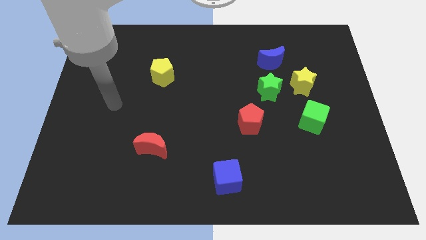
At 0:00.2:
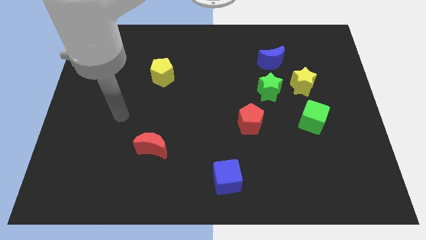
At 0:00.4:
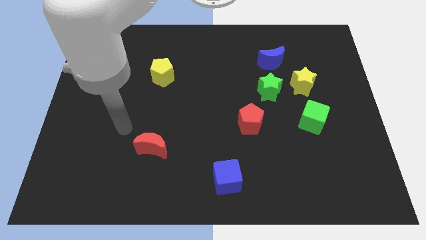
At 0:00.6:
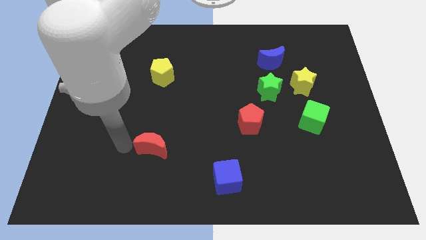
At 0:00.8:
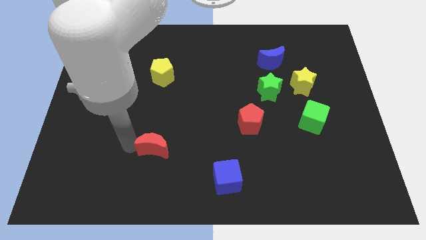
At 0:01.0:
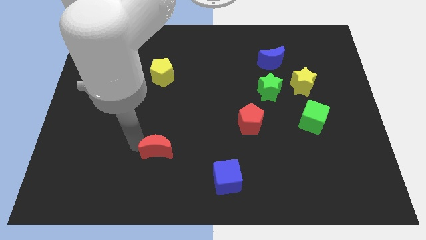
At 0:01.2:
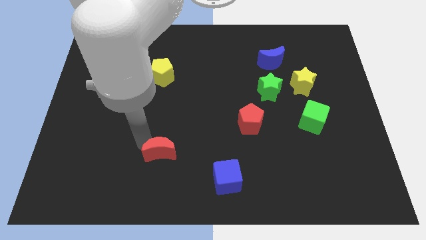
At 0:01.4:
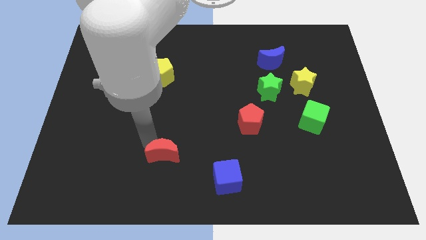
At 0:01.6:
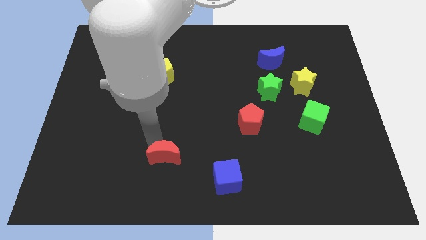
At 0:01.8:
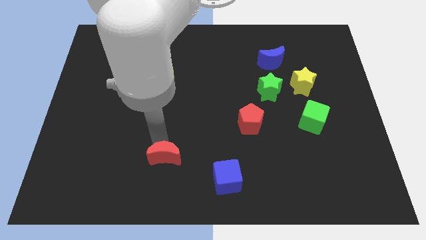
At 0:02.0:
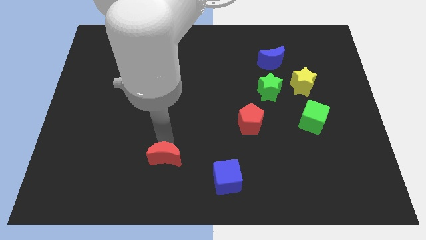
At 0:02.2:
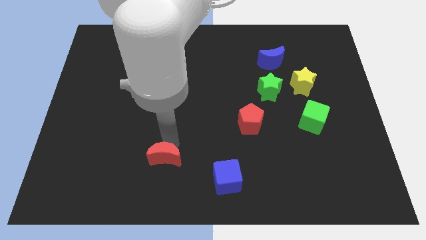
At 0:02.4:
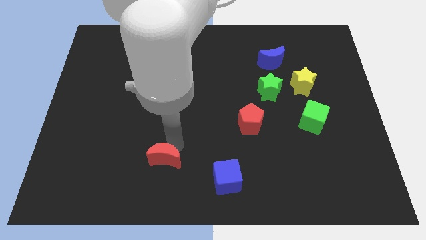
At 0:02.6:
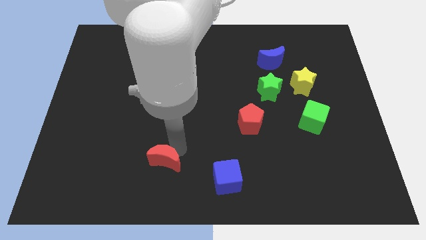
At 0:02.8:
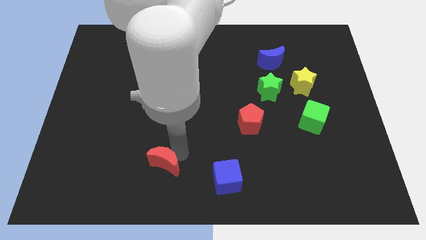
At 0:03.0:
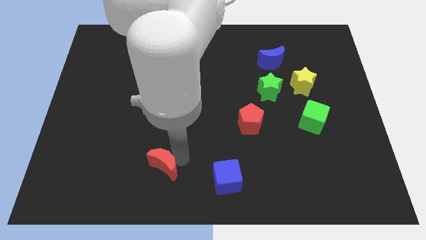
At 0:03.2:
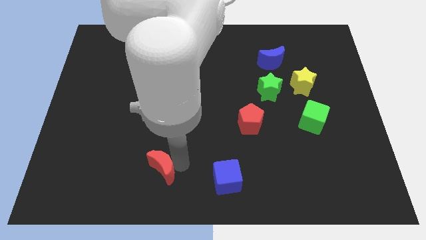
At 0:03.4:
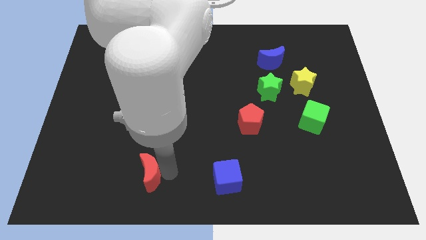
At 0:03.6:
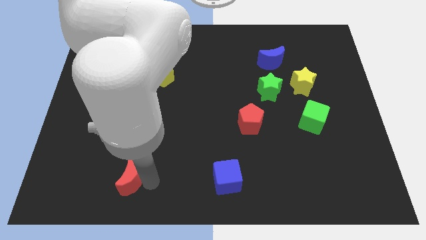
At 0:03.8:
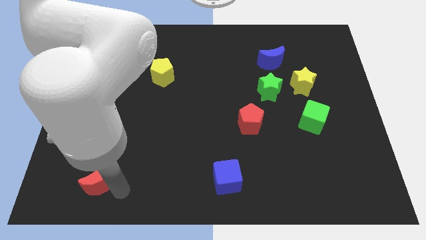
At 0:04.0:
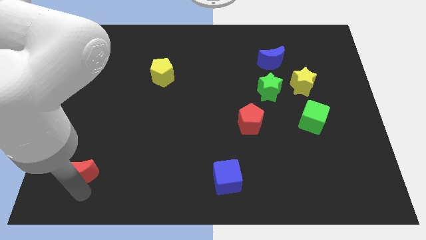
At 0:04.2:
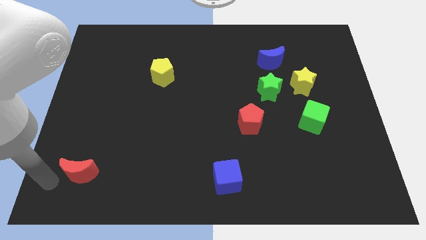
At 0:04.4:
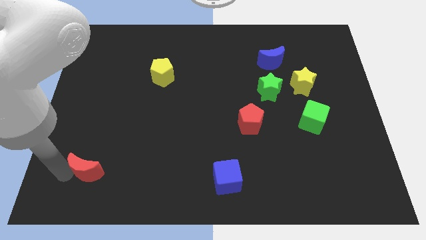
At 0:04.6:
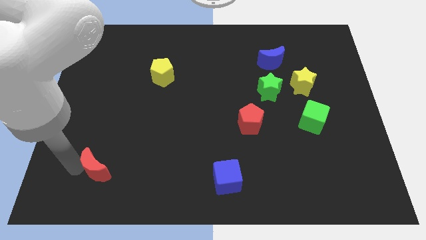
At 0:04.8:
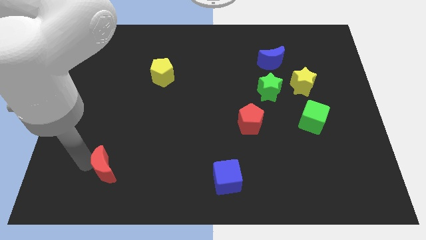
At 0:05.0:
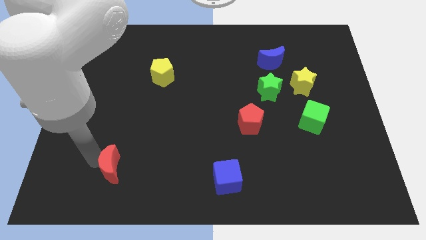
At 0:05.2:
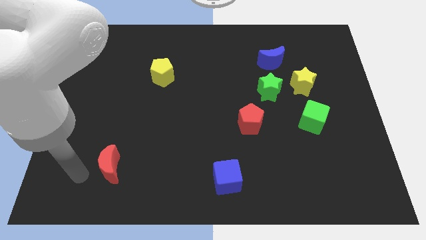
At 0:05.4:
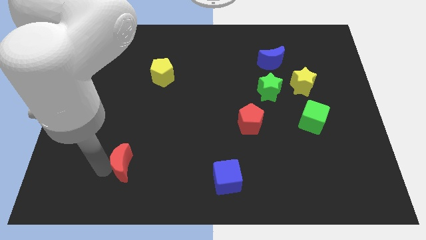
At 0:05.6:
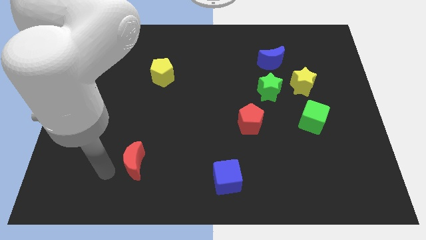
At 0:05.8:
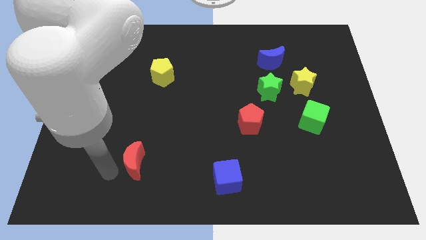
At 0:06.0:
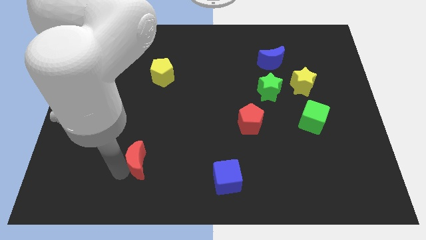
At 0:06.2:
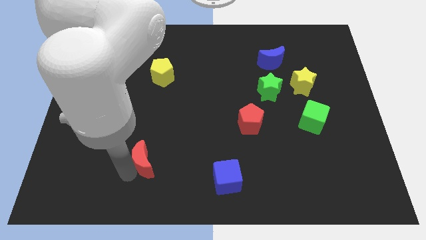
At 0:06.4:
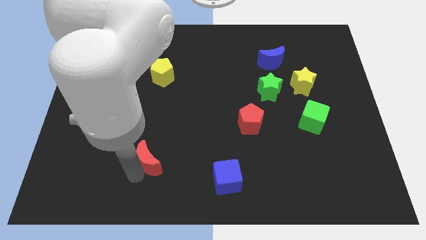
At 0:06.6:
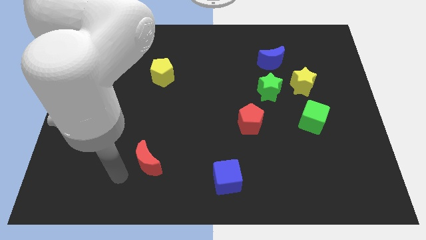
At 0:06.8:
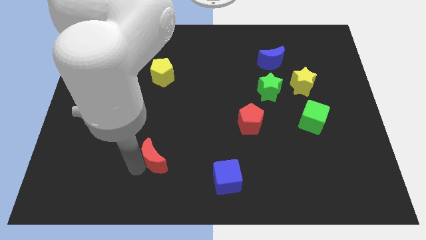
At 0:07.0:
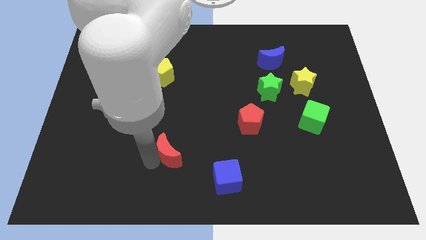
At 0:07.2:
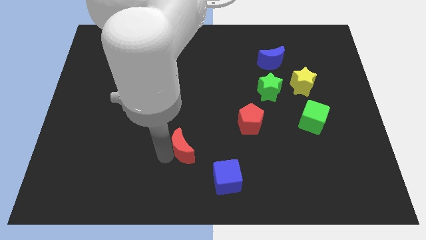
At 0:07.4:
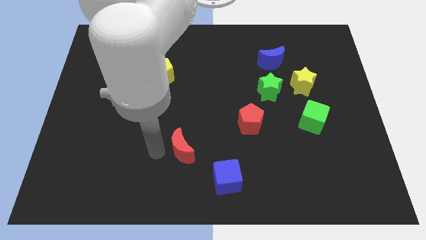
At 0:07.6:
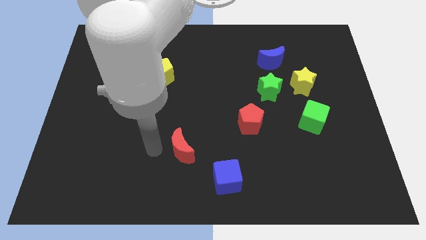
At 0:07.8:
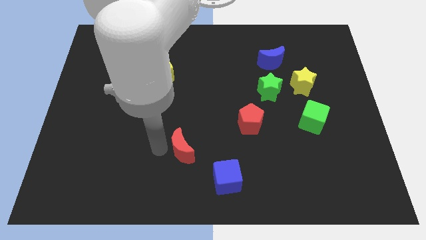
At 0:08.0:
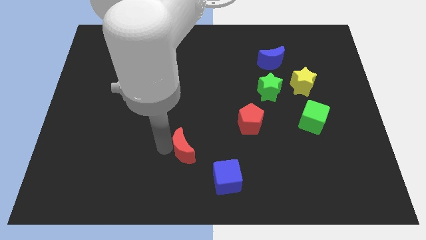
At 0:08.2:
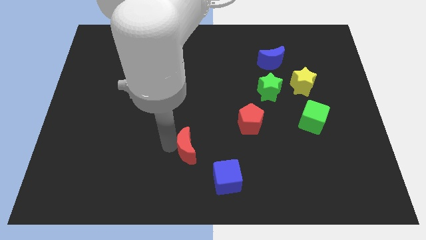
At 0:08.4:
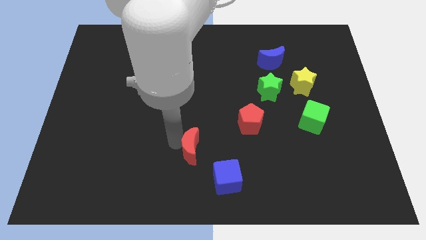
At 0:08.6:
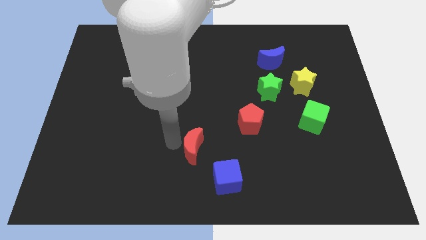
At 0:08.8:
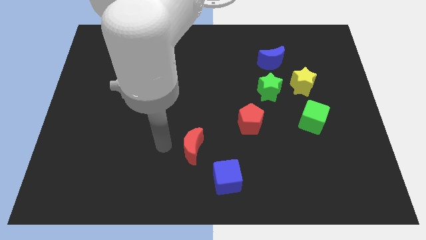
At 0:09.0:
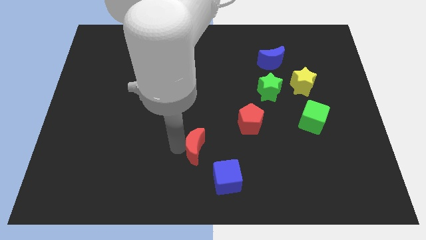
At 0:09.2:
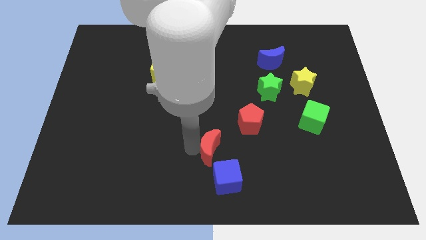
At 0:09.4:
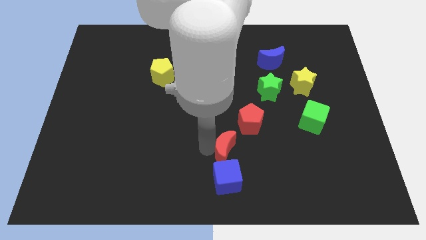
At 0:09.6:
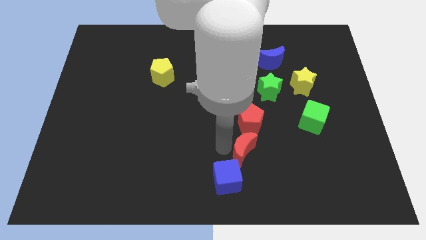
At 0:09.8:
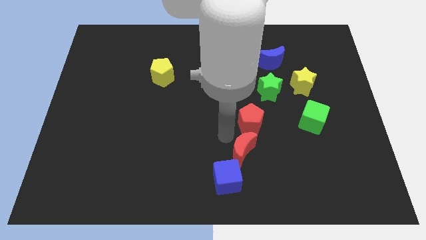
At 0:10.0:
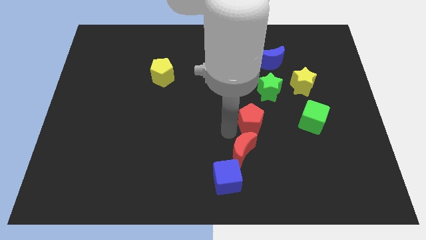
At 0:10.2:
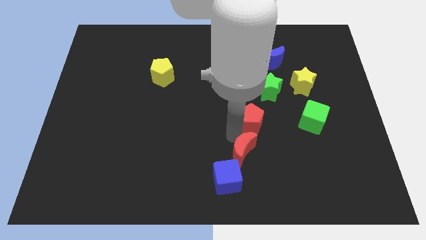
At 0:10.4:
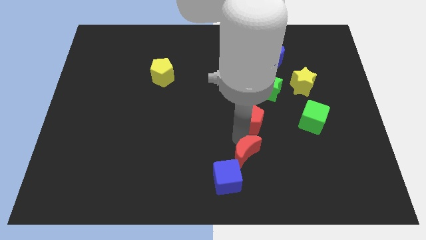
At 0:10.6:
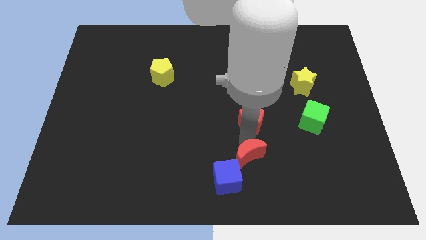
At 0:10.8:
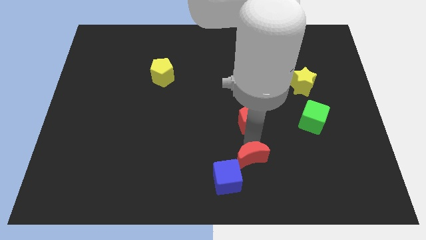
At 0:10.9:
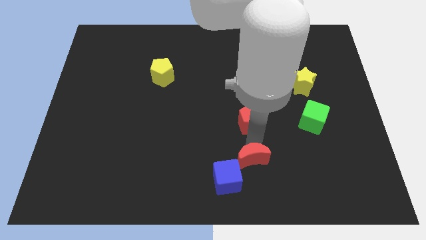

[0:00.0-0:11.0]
put the red moon right of the blue cube

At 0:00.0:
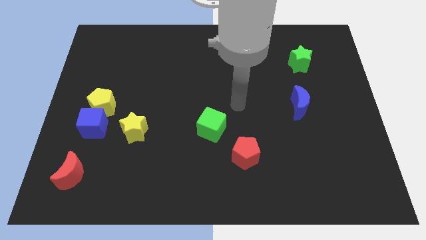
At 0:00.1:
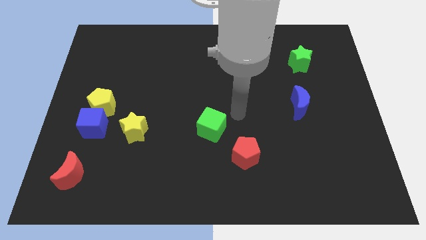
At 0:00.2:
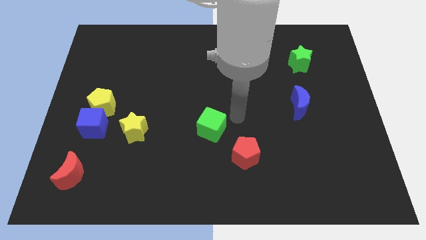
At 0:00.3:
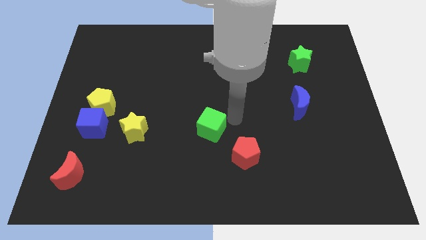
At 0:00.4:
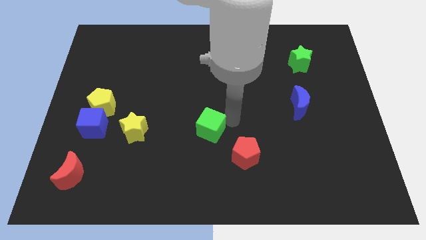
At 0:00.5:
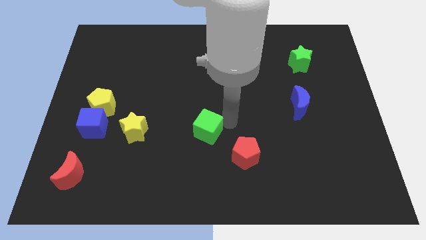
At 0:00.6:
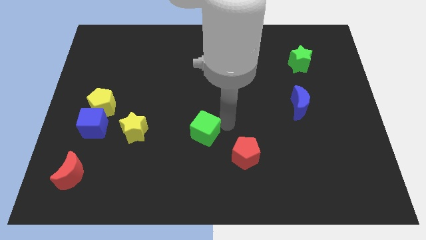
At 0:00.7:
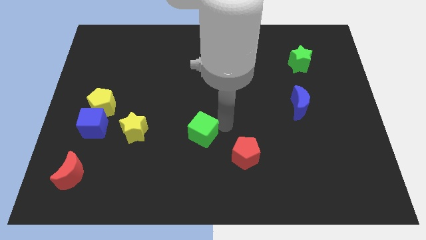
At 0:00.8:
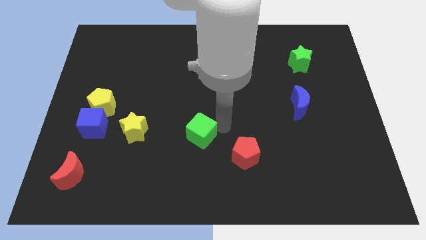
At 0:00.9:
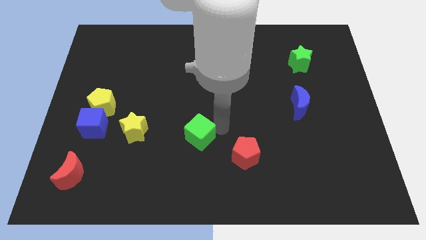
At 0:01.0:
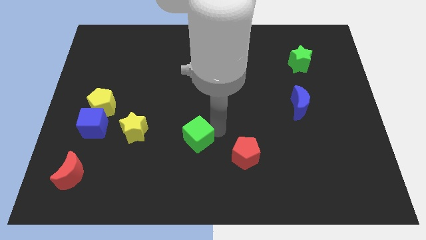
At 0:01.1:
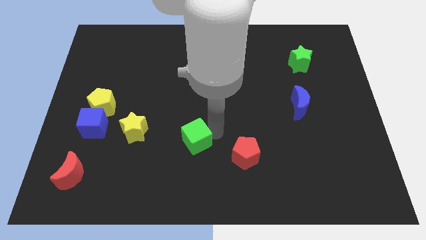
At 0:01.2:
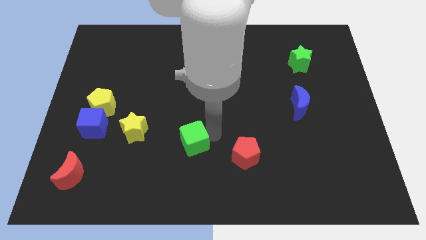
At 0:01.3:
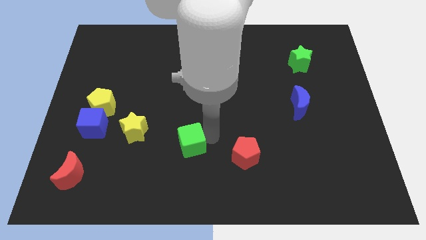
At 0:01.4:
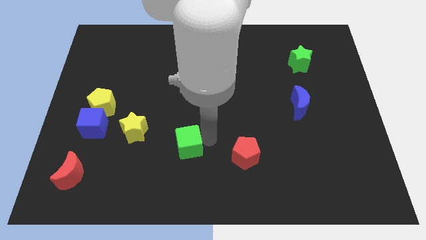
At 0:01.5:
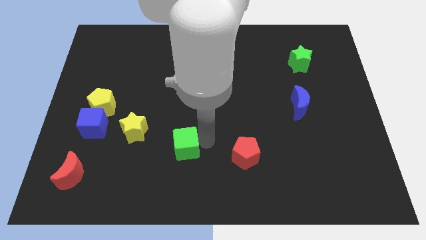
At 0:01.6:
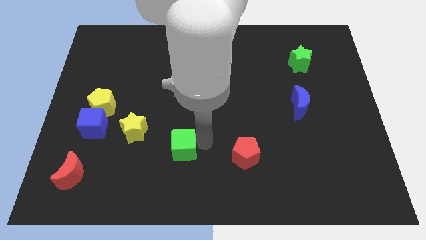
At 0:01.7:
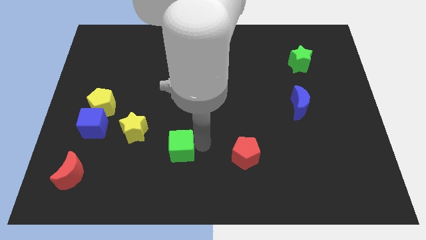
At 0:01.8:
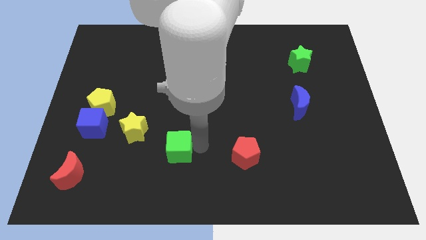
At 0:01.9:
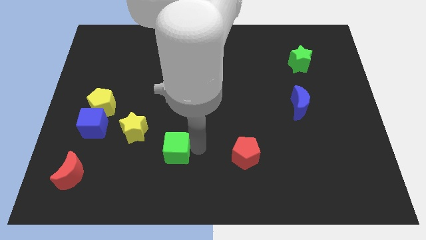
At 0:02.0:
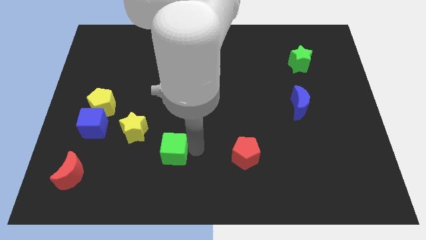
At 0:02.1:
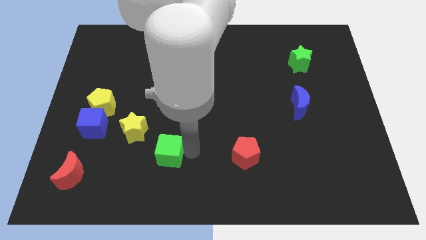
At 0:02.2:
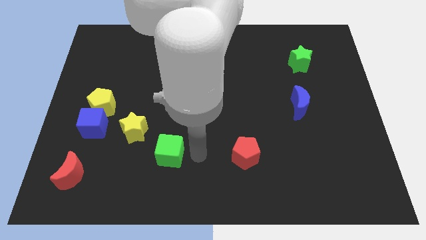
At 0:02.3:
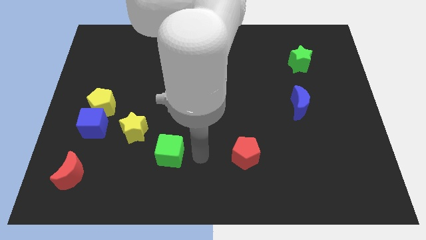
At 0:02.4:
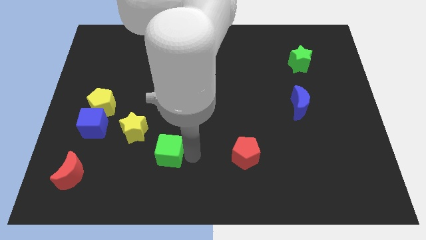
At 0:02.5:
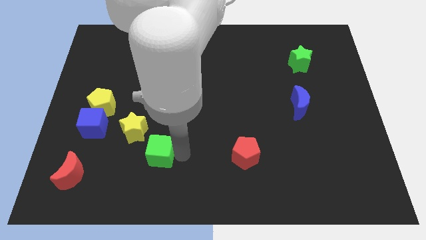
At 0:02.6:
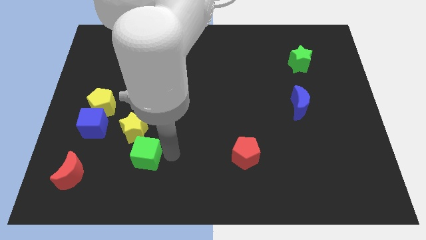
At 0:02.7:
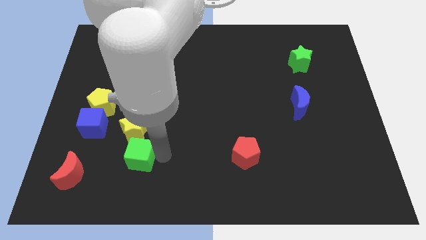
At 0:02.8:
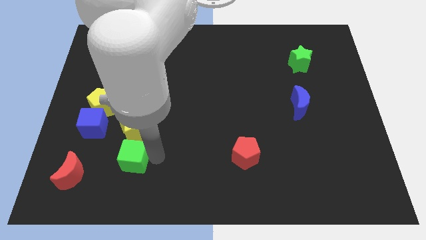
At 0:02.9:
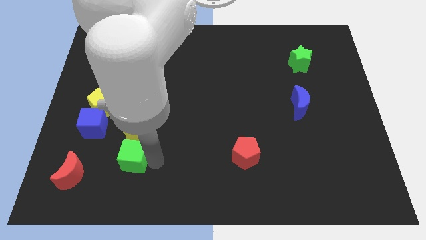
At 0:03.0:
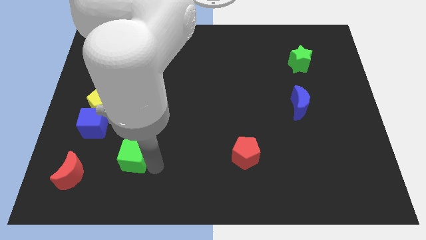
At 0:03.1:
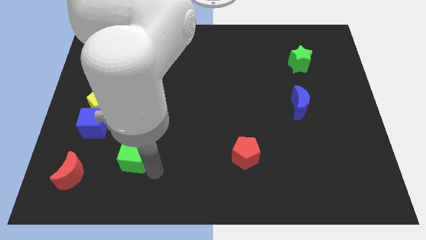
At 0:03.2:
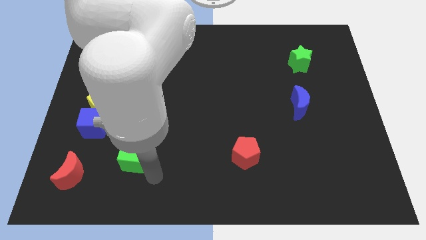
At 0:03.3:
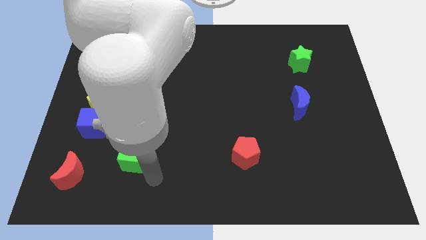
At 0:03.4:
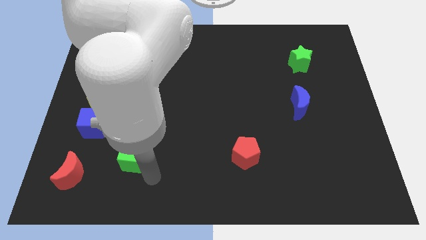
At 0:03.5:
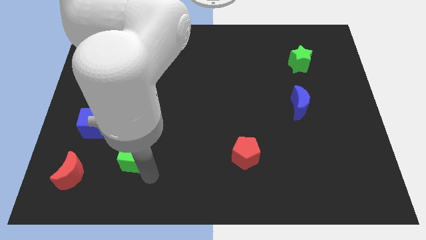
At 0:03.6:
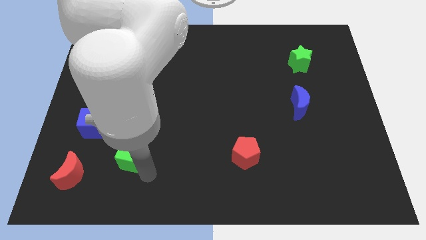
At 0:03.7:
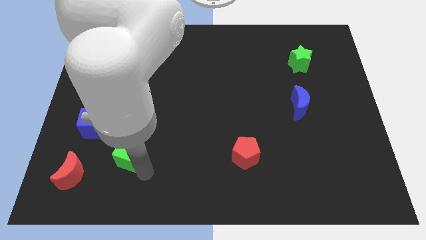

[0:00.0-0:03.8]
slide the green cube diagonally down and to the left of the yellow star
